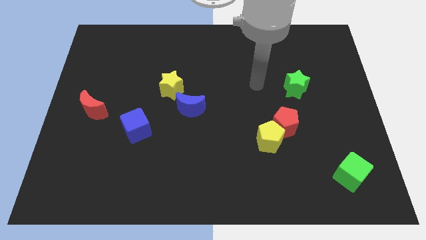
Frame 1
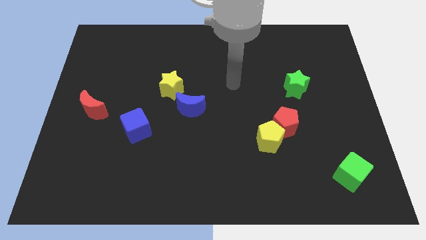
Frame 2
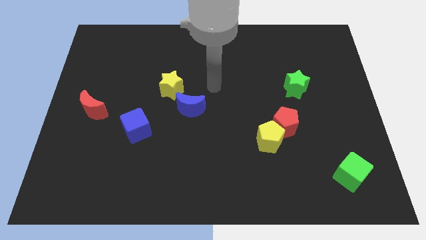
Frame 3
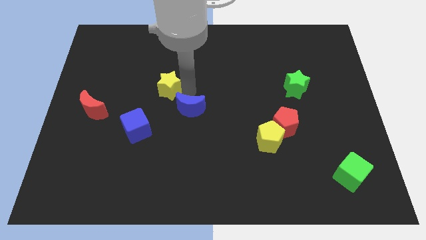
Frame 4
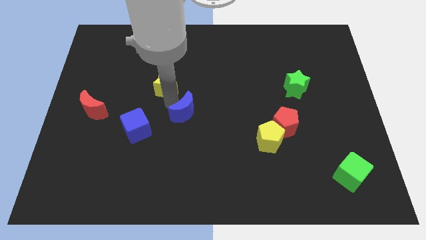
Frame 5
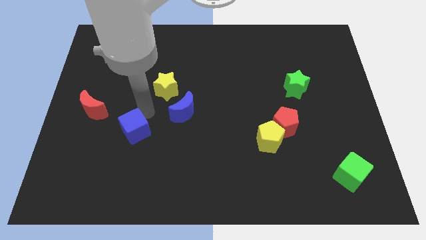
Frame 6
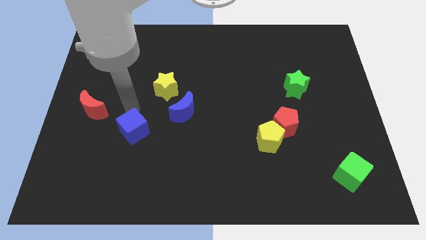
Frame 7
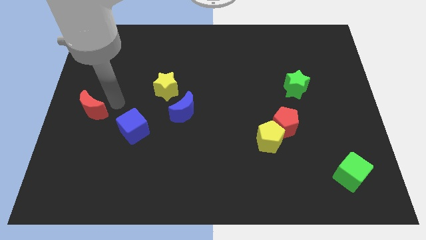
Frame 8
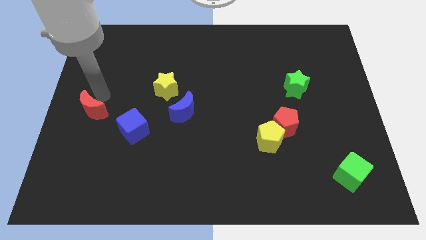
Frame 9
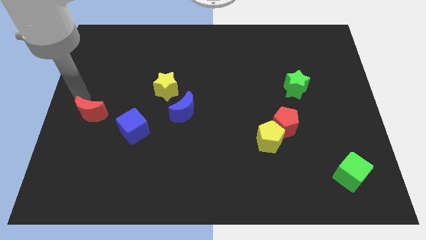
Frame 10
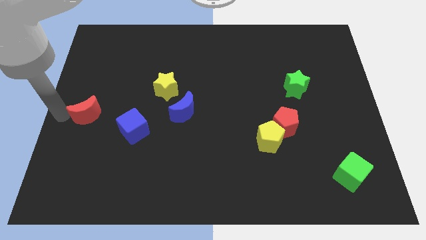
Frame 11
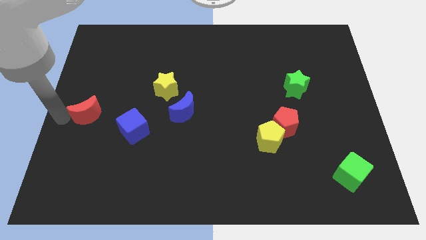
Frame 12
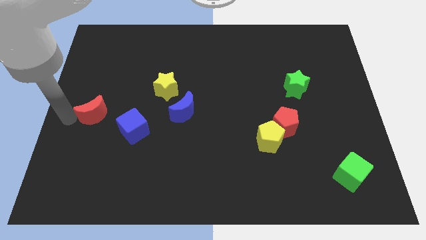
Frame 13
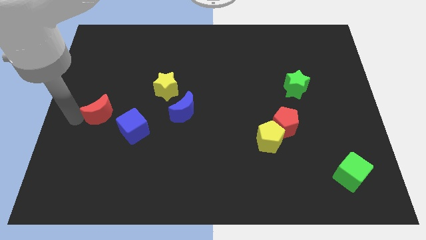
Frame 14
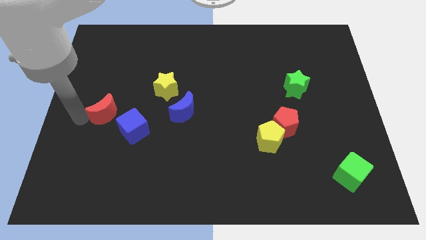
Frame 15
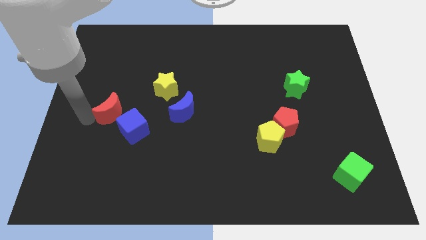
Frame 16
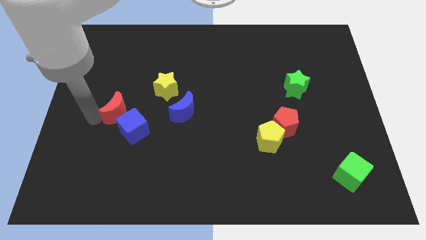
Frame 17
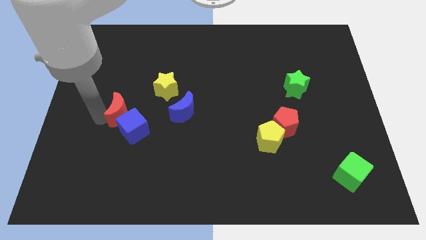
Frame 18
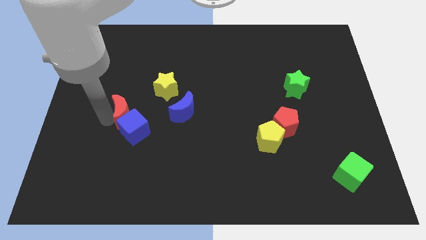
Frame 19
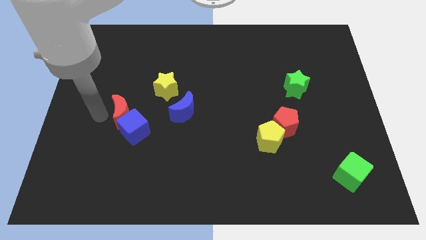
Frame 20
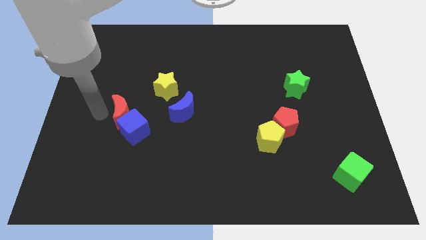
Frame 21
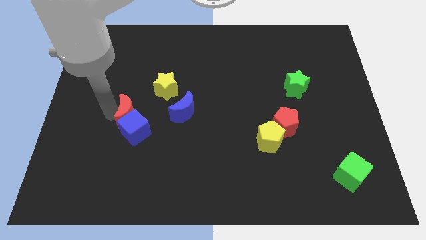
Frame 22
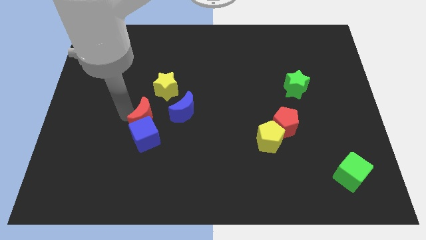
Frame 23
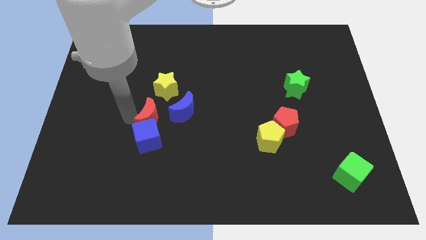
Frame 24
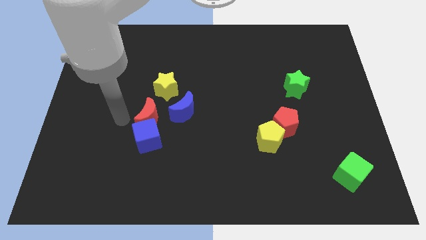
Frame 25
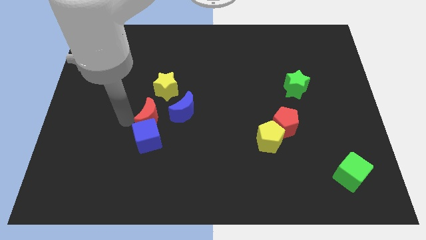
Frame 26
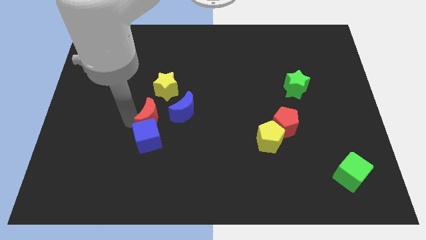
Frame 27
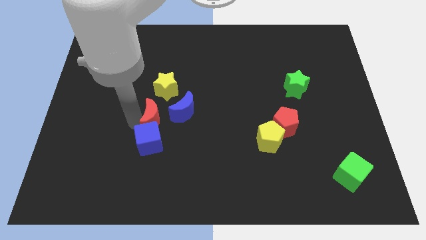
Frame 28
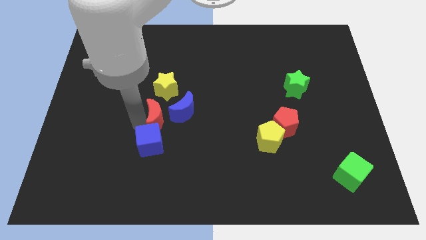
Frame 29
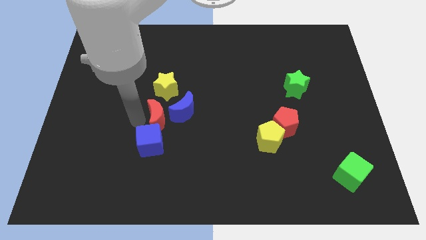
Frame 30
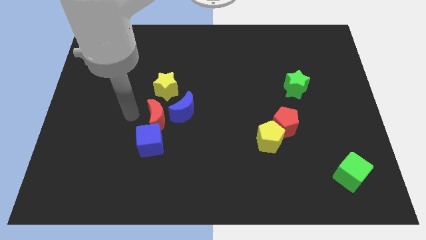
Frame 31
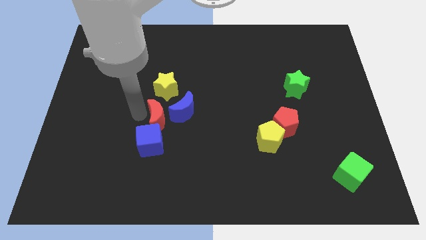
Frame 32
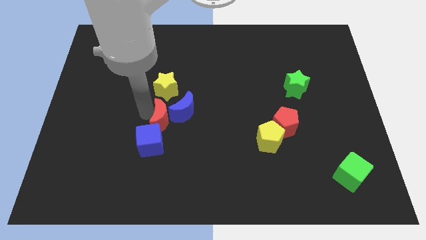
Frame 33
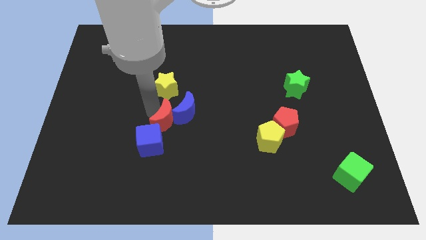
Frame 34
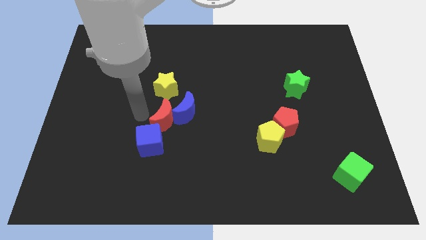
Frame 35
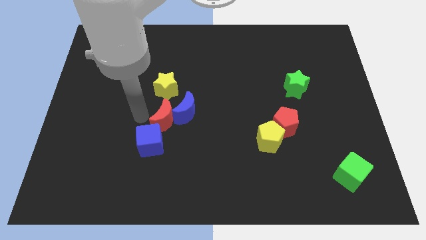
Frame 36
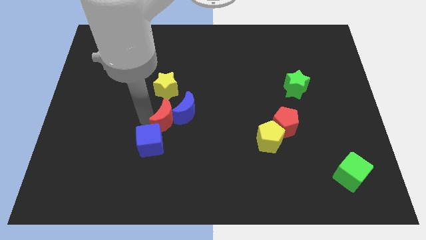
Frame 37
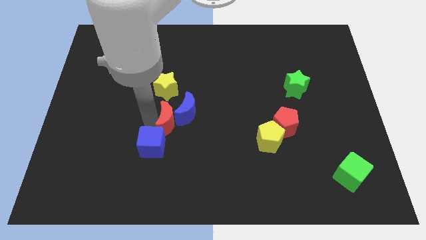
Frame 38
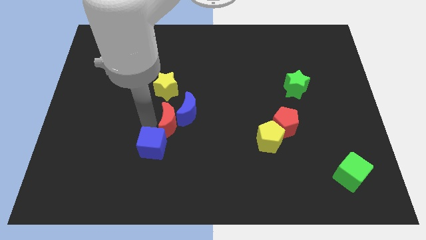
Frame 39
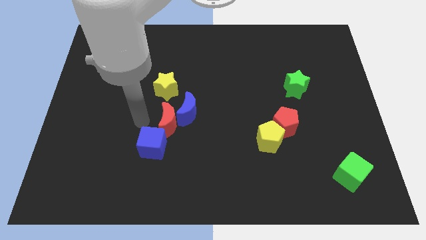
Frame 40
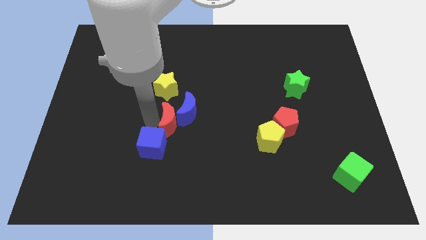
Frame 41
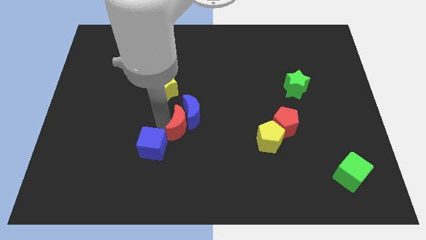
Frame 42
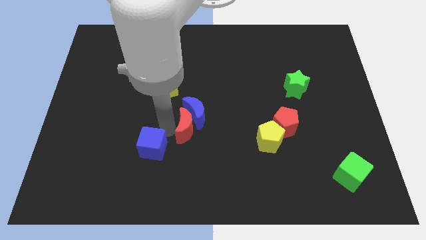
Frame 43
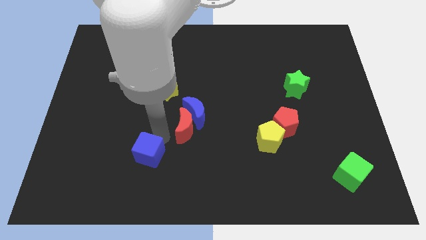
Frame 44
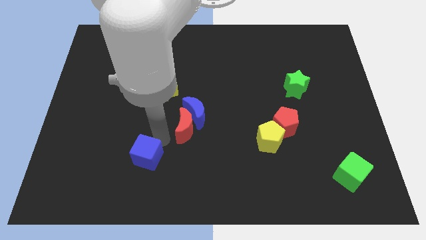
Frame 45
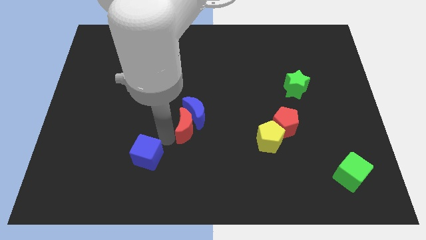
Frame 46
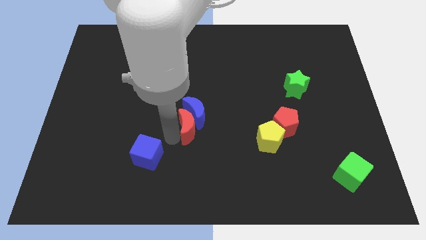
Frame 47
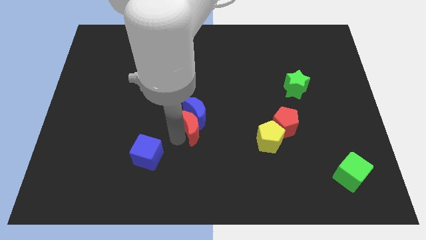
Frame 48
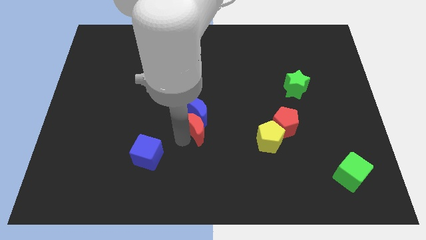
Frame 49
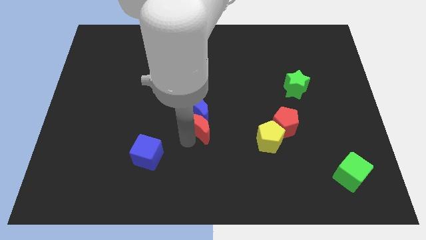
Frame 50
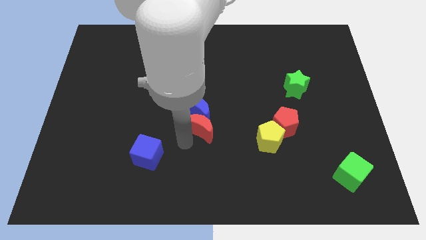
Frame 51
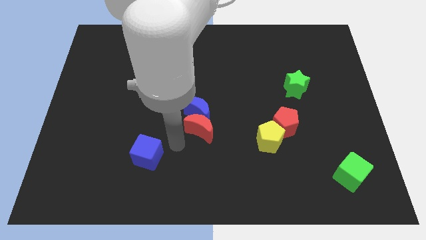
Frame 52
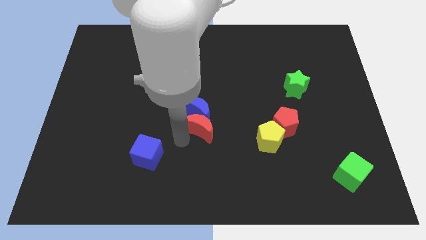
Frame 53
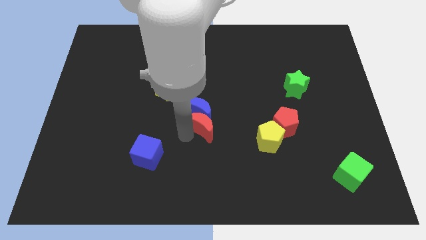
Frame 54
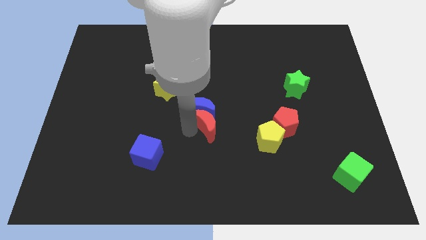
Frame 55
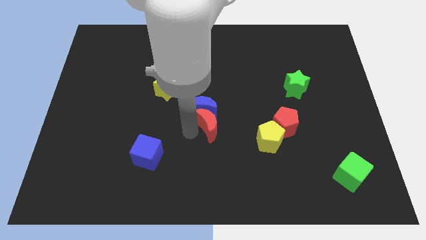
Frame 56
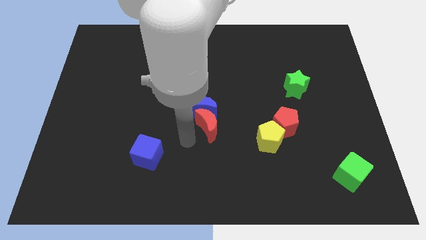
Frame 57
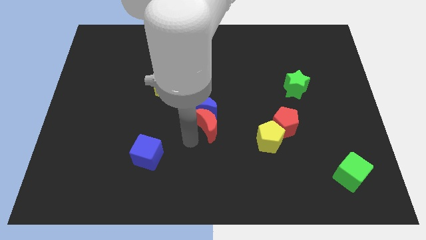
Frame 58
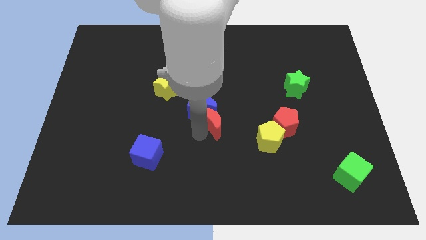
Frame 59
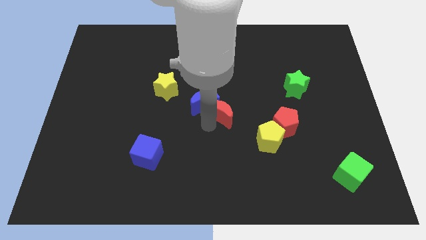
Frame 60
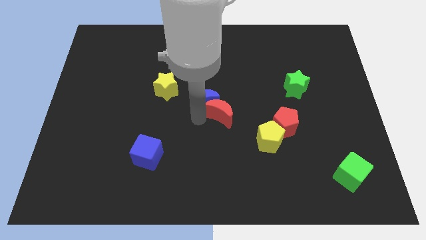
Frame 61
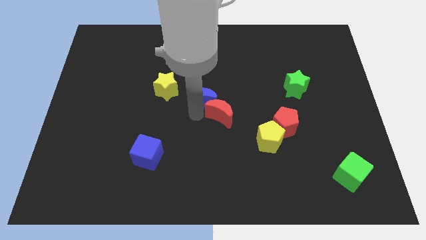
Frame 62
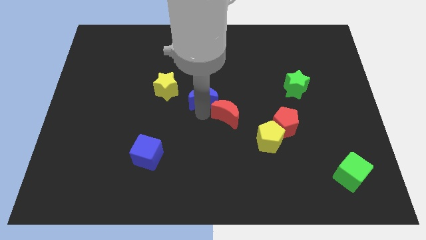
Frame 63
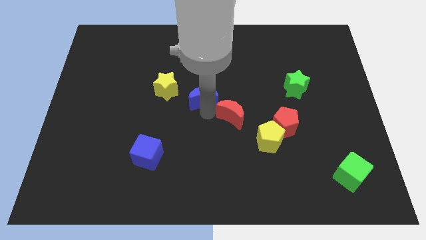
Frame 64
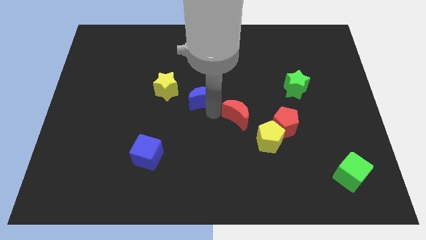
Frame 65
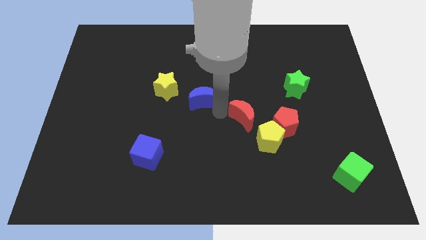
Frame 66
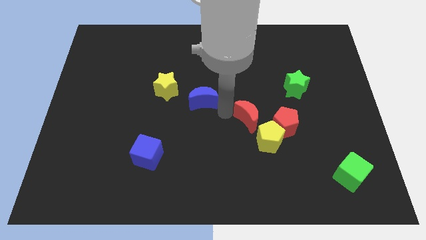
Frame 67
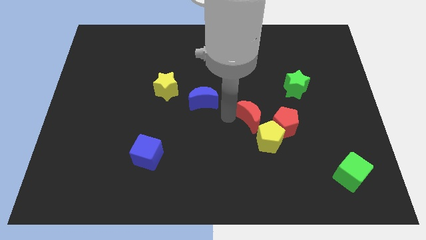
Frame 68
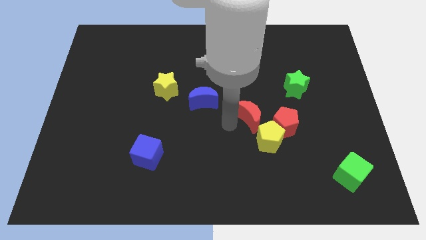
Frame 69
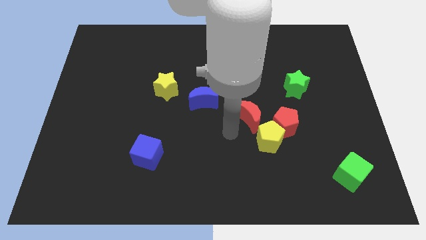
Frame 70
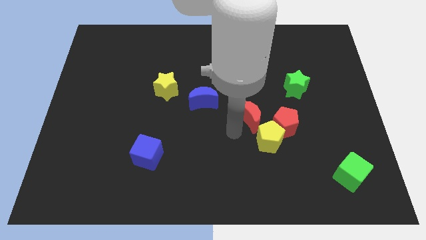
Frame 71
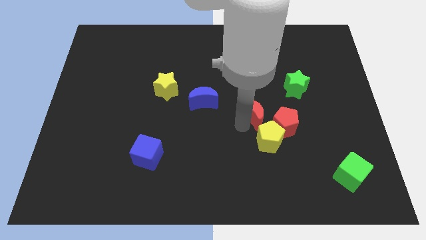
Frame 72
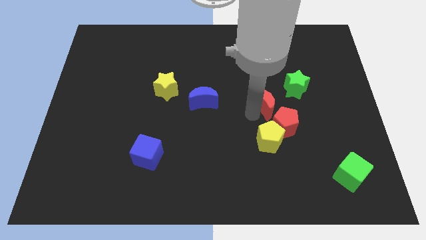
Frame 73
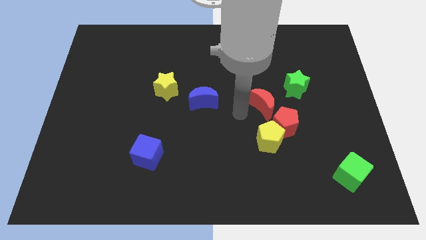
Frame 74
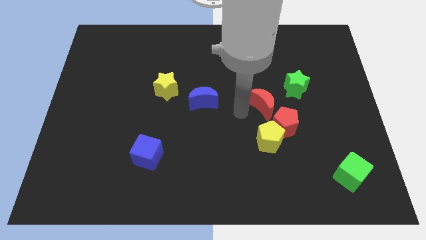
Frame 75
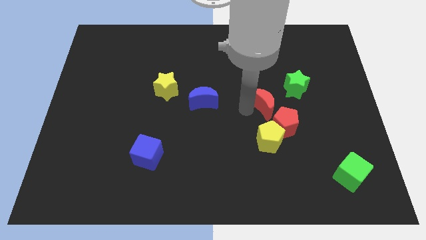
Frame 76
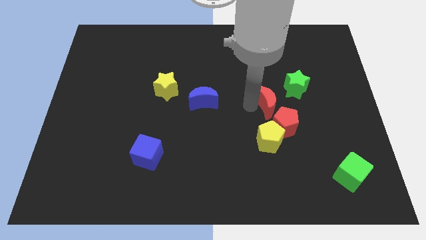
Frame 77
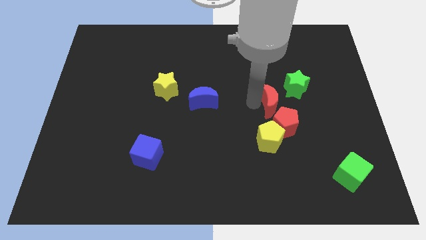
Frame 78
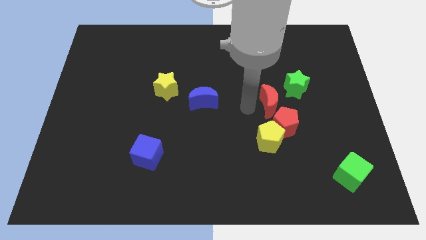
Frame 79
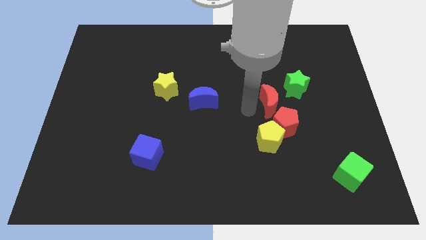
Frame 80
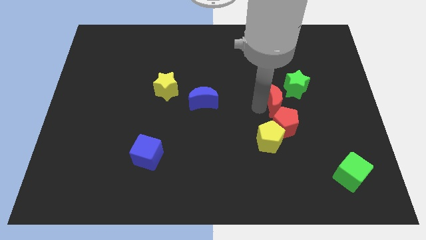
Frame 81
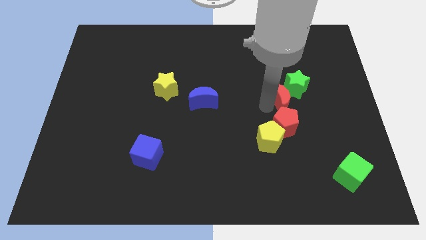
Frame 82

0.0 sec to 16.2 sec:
put the red moon close to the green star

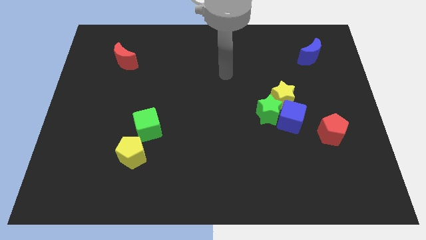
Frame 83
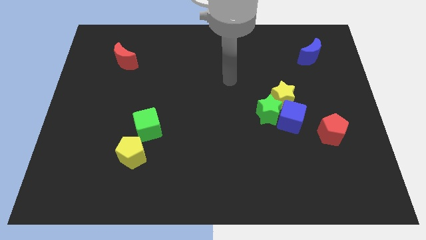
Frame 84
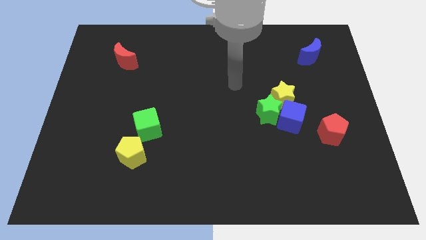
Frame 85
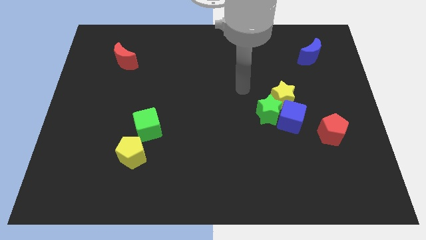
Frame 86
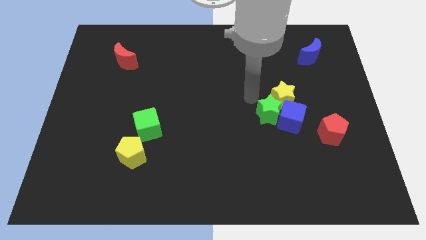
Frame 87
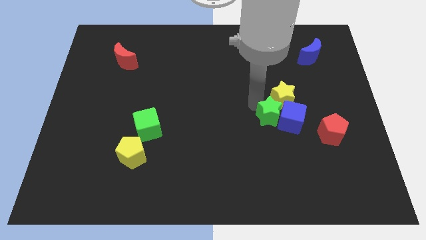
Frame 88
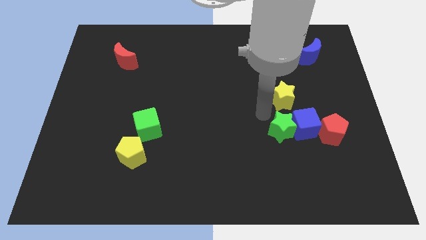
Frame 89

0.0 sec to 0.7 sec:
put the blue cube to the red pentagon
